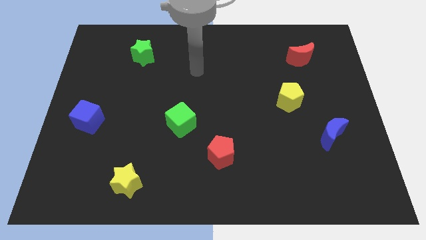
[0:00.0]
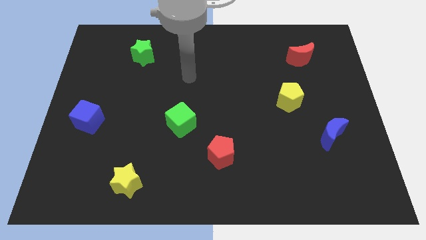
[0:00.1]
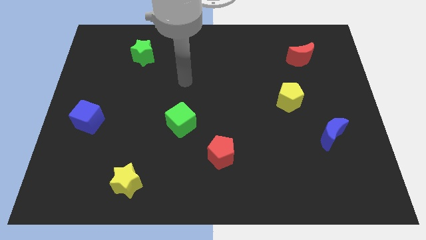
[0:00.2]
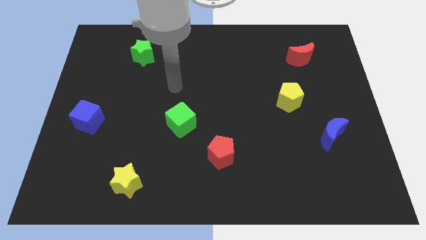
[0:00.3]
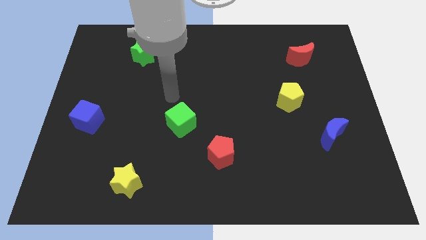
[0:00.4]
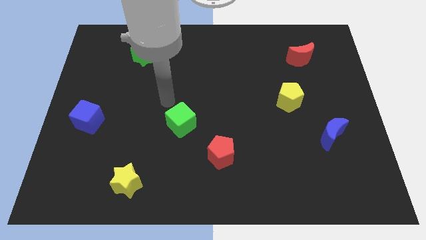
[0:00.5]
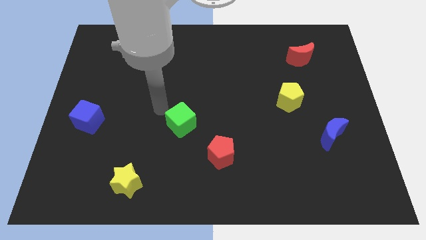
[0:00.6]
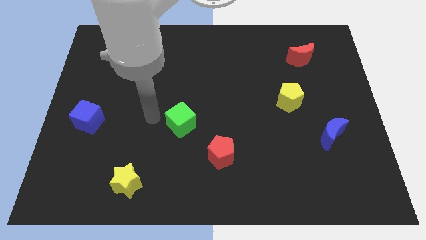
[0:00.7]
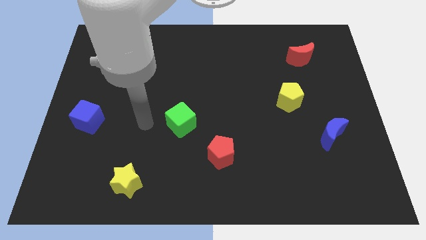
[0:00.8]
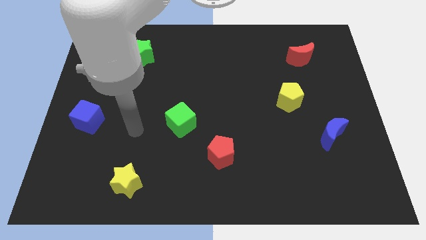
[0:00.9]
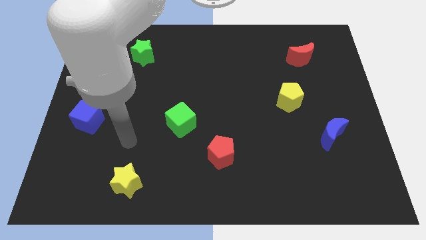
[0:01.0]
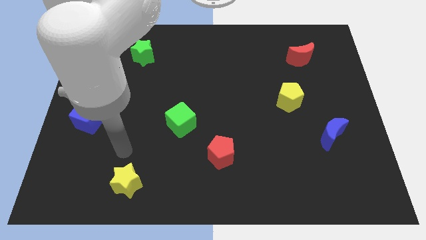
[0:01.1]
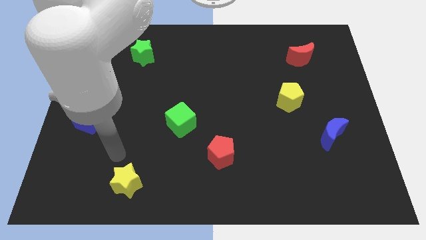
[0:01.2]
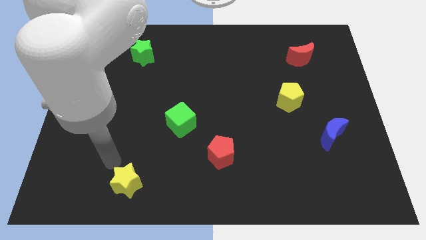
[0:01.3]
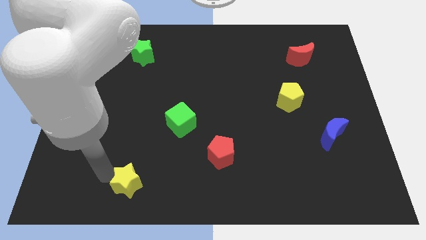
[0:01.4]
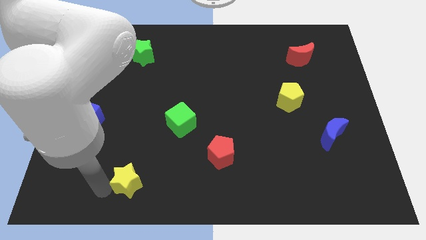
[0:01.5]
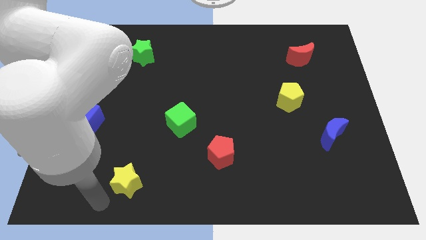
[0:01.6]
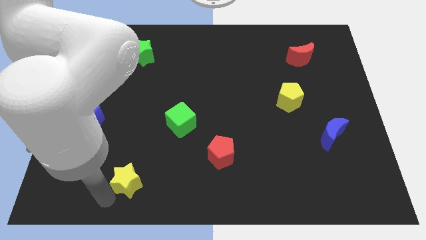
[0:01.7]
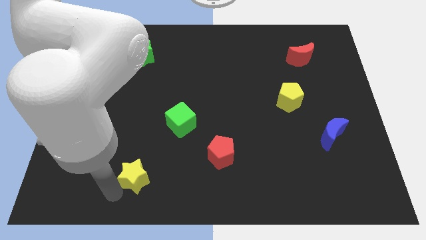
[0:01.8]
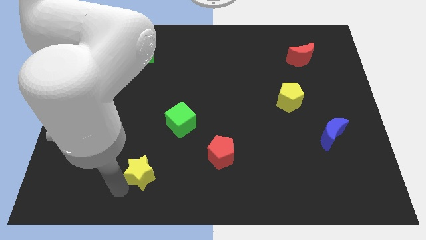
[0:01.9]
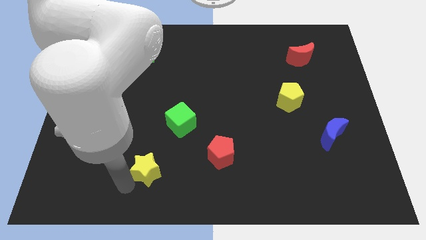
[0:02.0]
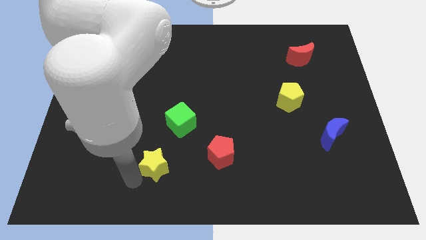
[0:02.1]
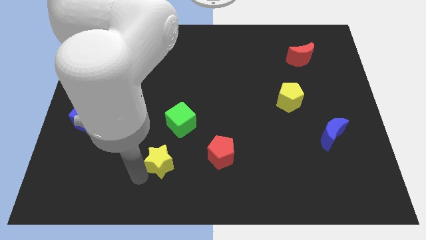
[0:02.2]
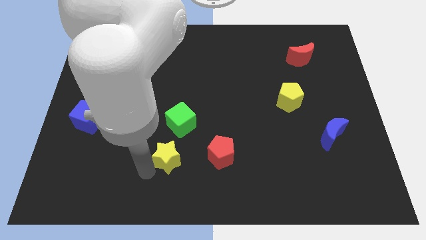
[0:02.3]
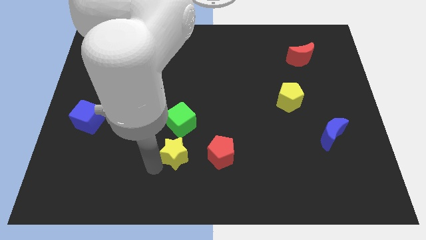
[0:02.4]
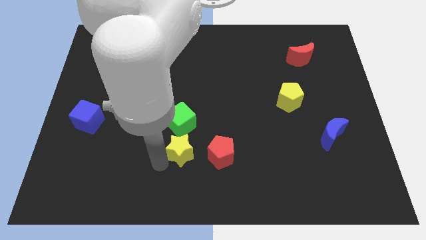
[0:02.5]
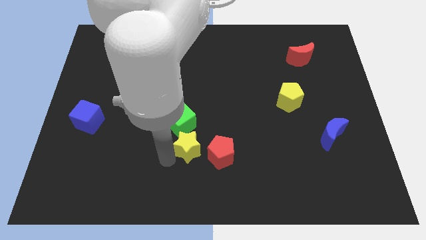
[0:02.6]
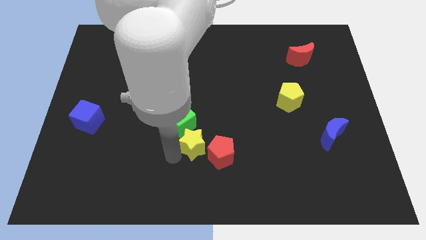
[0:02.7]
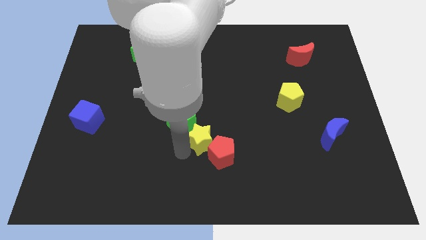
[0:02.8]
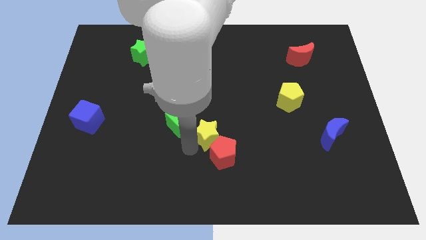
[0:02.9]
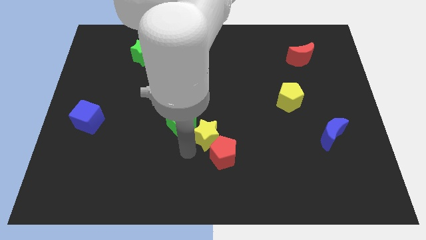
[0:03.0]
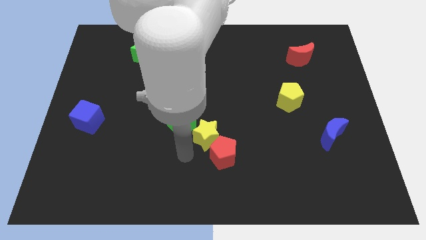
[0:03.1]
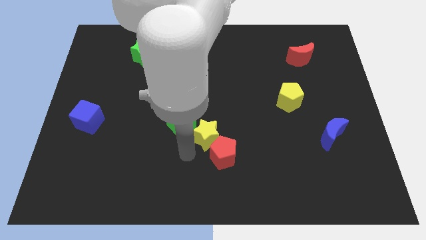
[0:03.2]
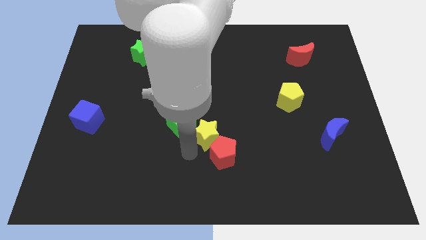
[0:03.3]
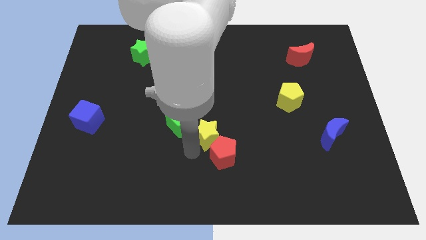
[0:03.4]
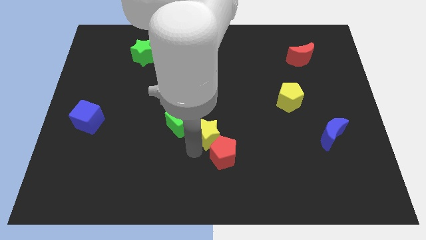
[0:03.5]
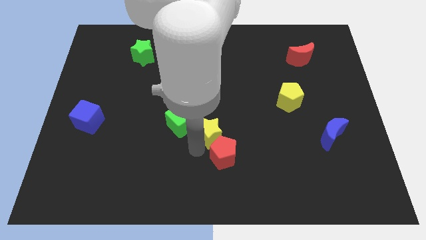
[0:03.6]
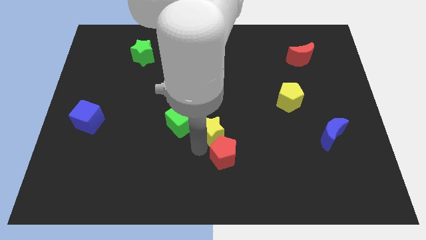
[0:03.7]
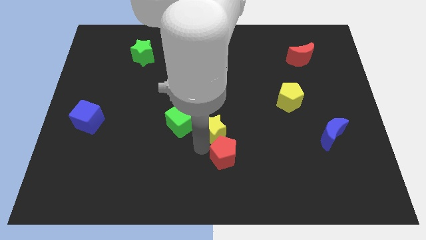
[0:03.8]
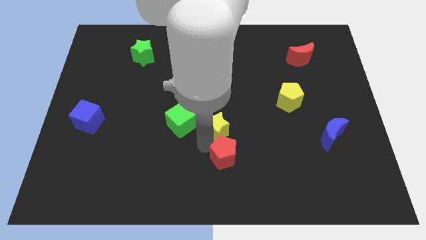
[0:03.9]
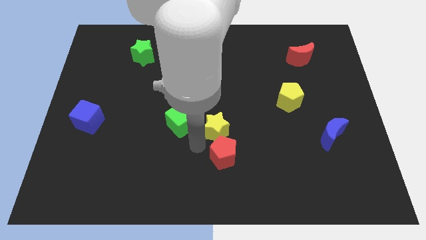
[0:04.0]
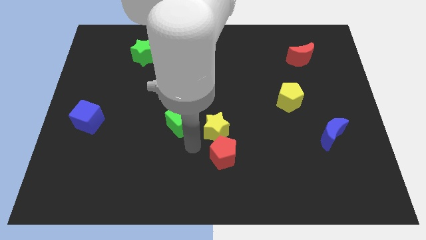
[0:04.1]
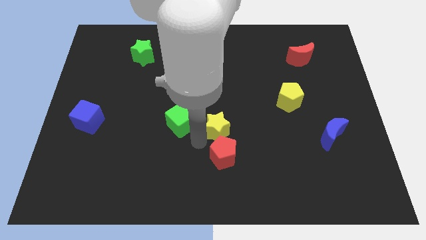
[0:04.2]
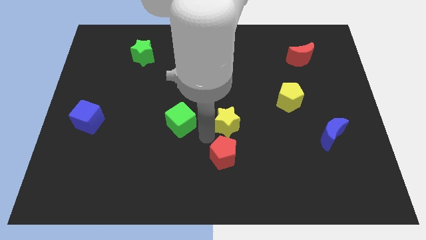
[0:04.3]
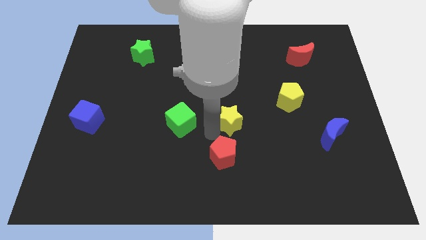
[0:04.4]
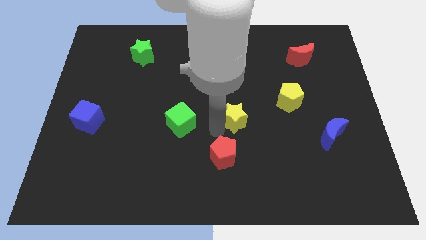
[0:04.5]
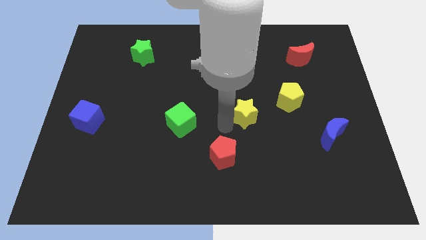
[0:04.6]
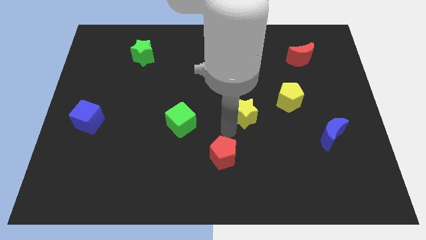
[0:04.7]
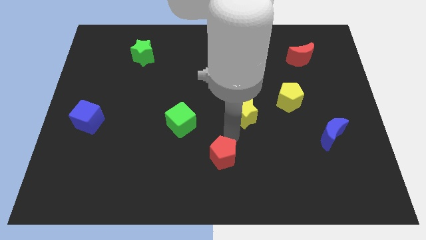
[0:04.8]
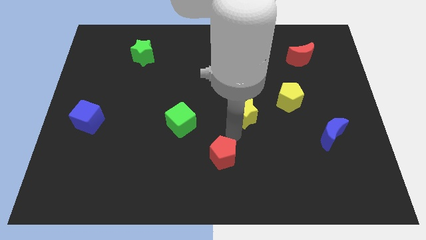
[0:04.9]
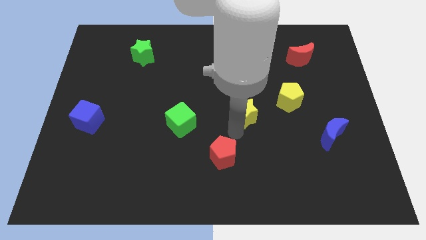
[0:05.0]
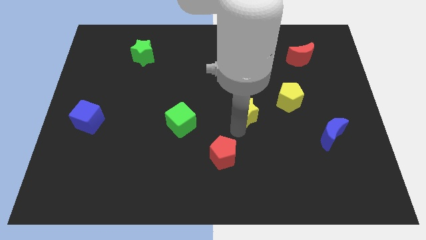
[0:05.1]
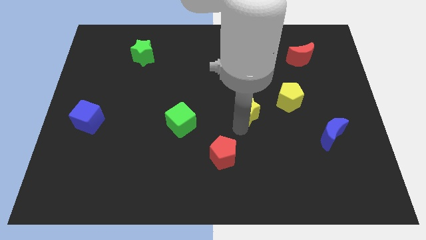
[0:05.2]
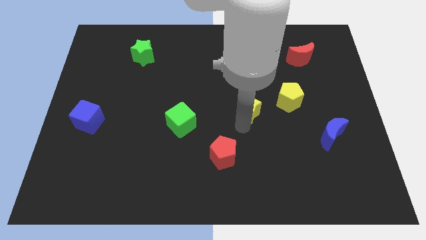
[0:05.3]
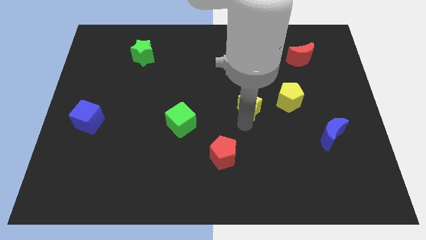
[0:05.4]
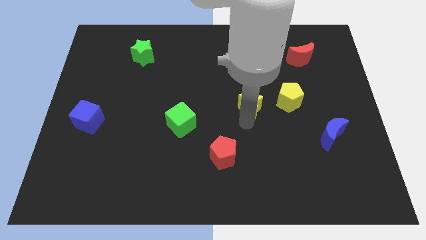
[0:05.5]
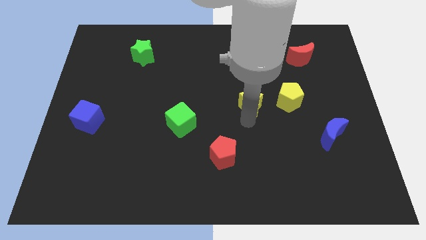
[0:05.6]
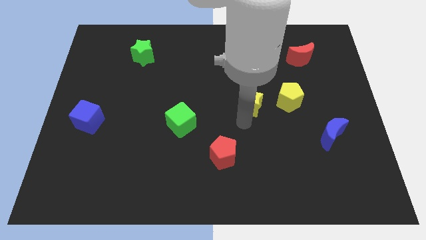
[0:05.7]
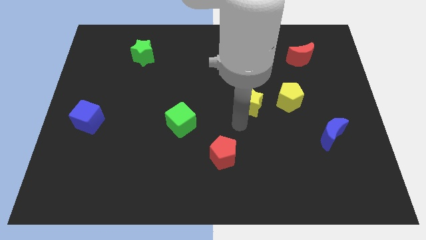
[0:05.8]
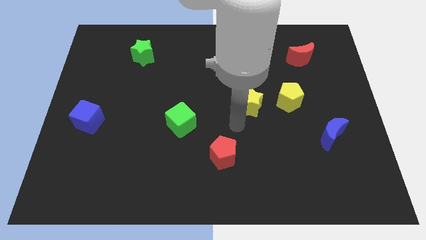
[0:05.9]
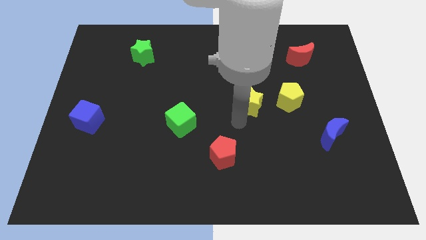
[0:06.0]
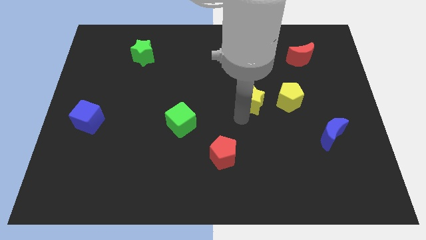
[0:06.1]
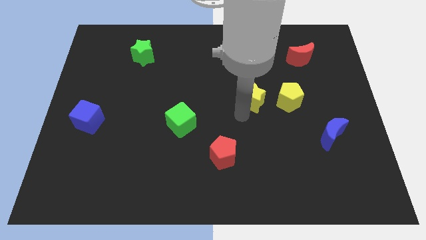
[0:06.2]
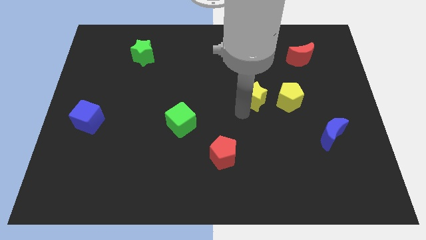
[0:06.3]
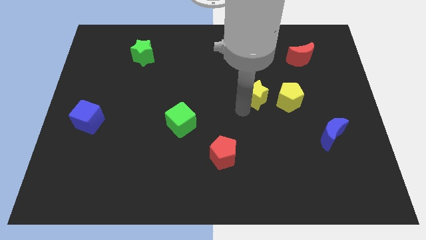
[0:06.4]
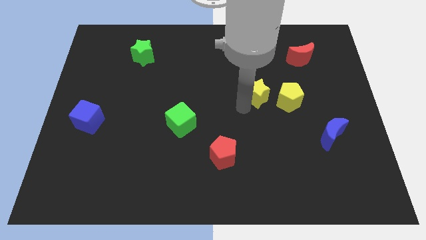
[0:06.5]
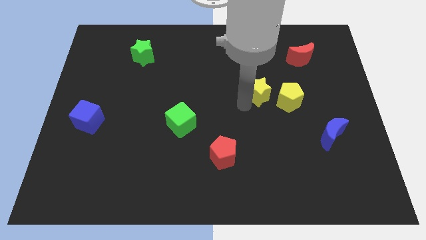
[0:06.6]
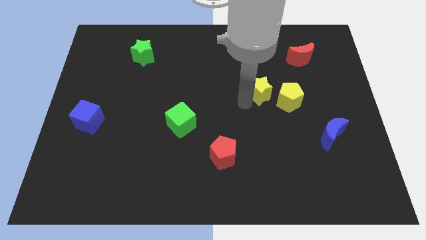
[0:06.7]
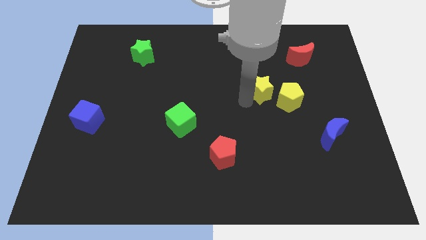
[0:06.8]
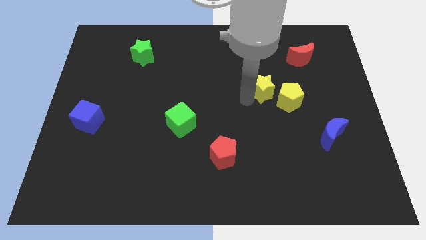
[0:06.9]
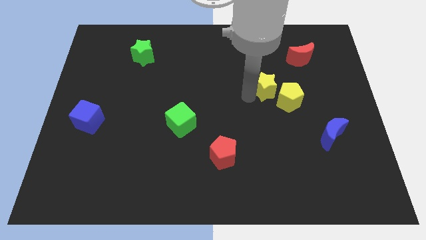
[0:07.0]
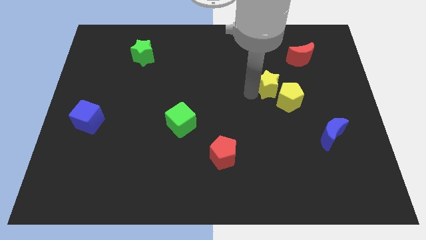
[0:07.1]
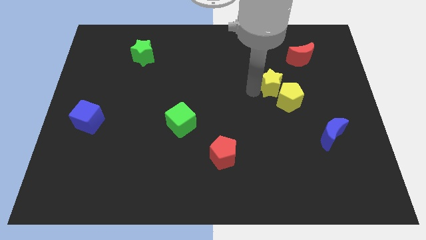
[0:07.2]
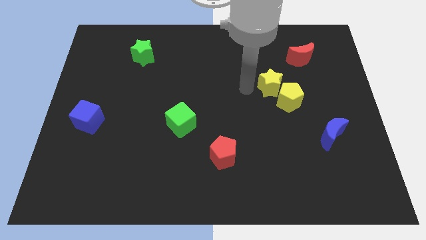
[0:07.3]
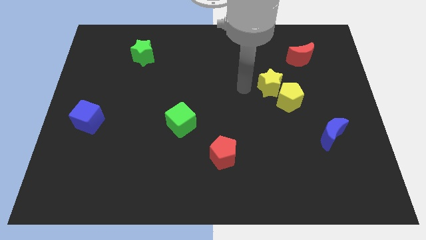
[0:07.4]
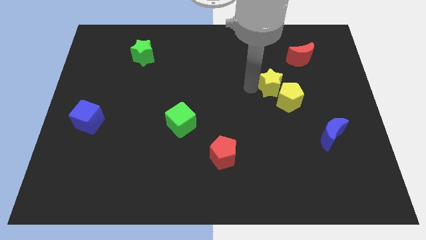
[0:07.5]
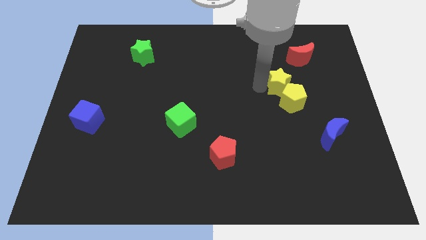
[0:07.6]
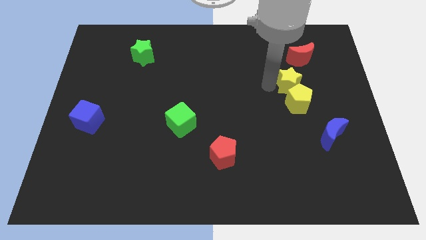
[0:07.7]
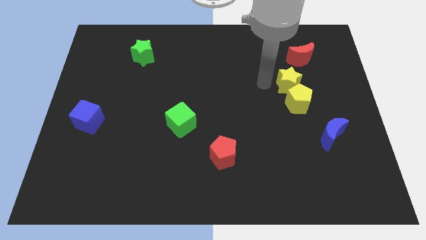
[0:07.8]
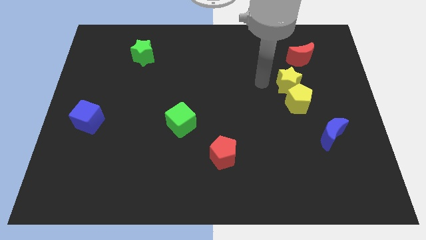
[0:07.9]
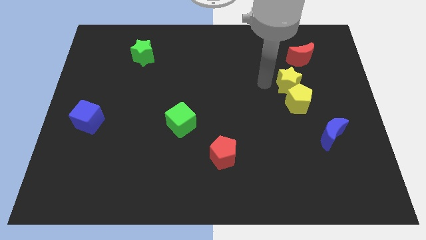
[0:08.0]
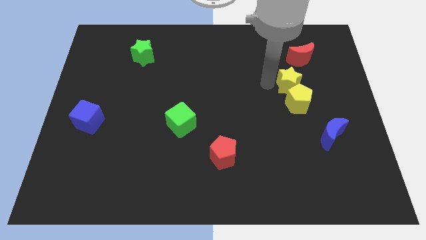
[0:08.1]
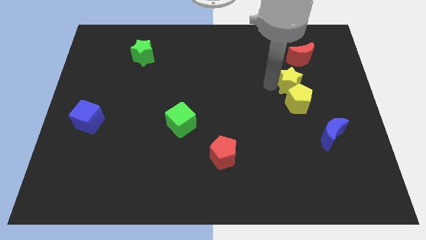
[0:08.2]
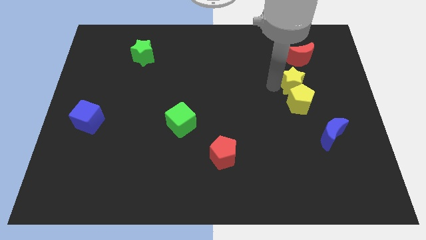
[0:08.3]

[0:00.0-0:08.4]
slide the yellow star to the top right side of the yellow pentagon
